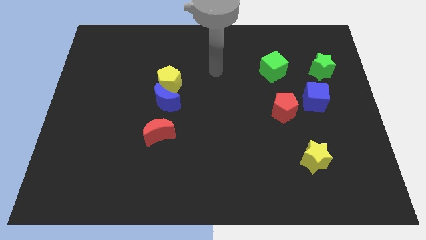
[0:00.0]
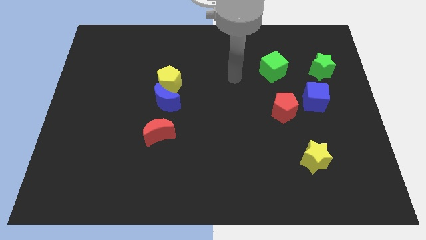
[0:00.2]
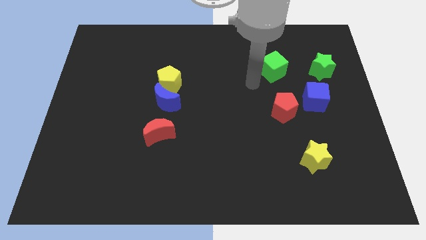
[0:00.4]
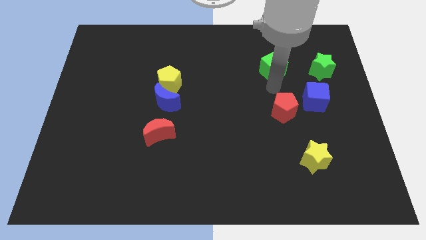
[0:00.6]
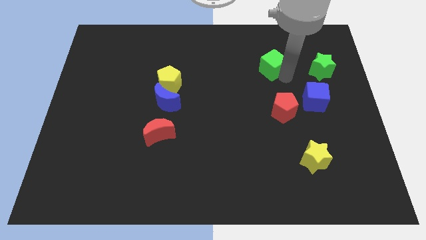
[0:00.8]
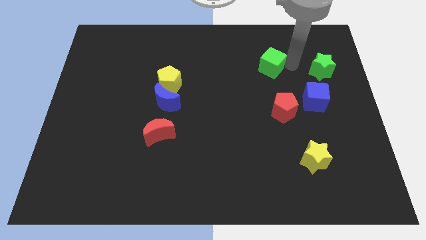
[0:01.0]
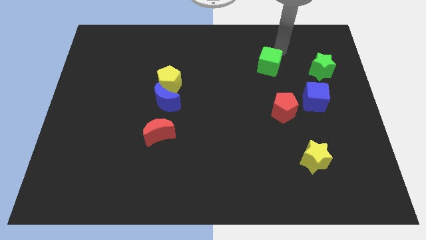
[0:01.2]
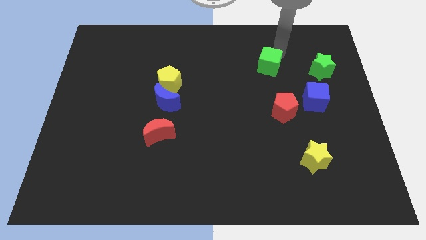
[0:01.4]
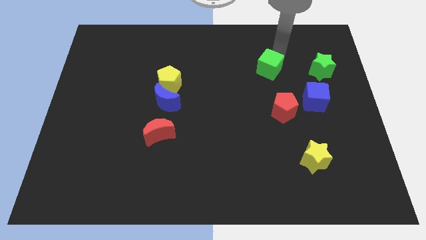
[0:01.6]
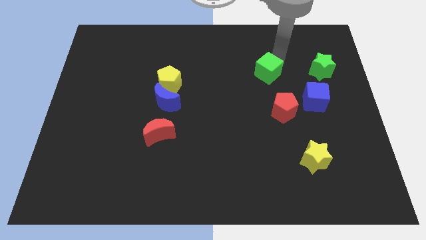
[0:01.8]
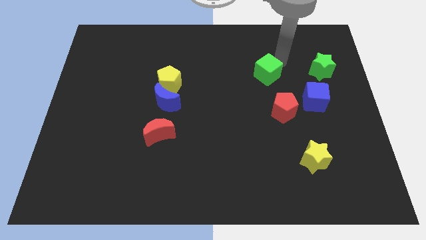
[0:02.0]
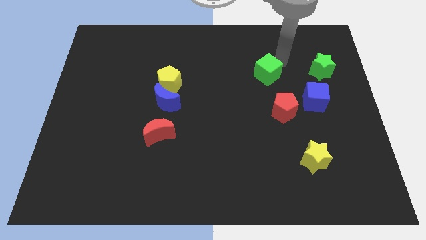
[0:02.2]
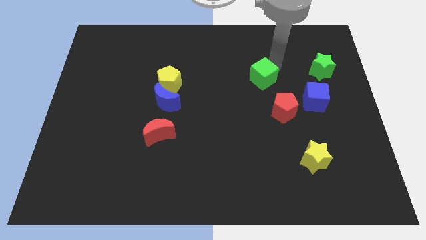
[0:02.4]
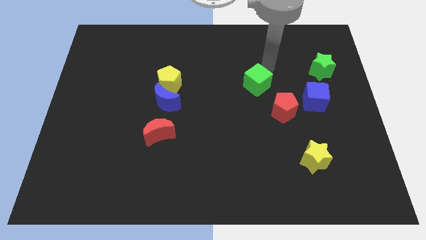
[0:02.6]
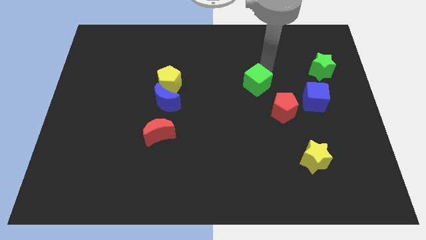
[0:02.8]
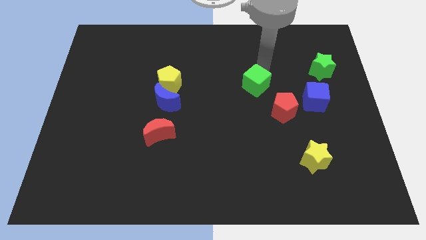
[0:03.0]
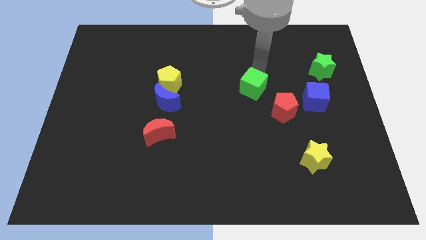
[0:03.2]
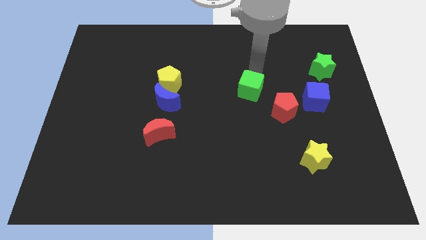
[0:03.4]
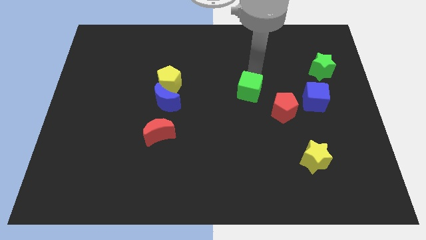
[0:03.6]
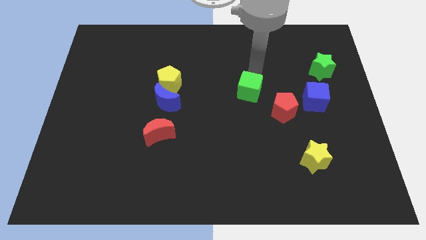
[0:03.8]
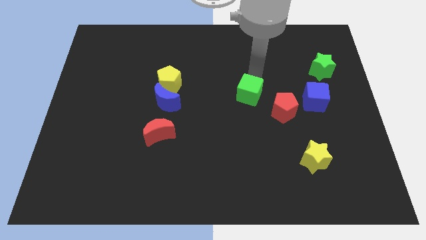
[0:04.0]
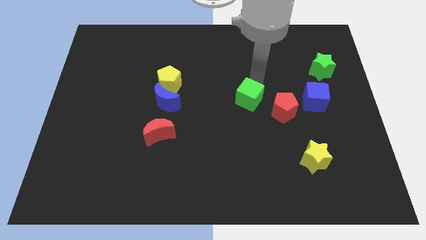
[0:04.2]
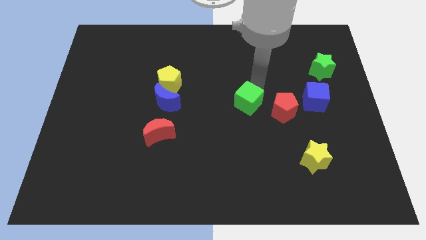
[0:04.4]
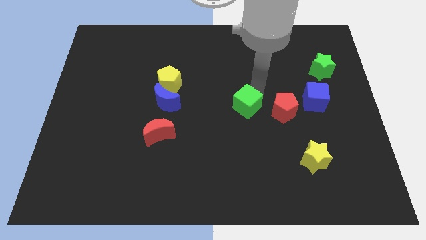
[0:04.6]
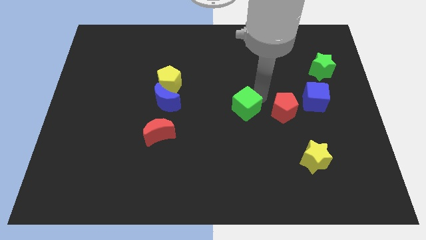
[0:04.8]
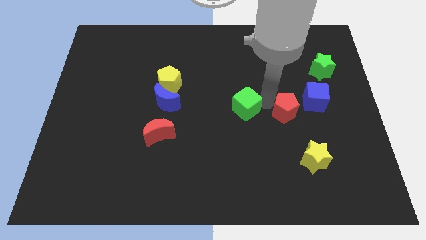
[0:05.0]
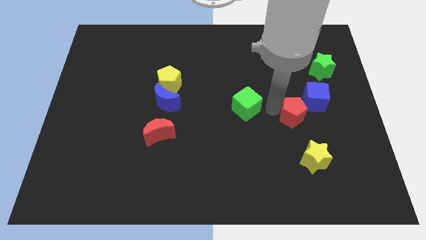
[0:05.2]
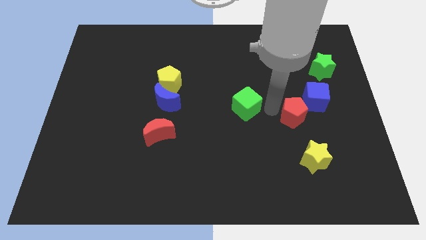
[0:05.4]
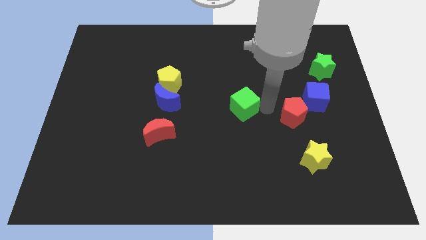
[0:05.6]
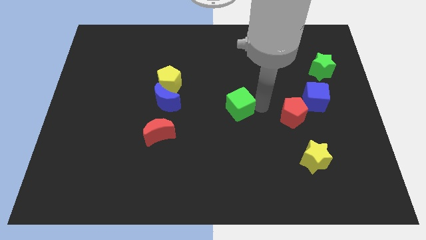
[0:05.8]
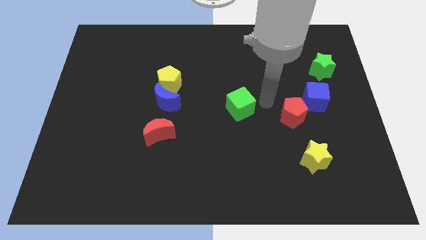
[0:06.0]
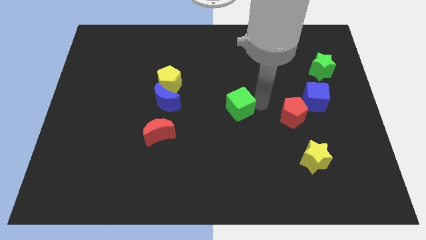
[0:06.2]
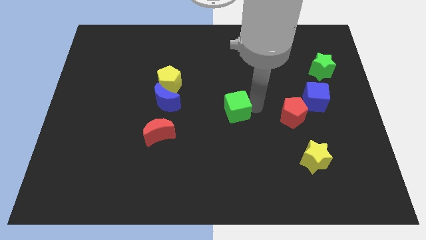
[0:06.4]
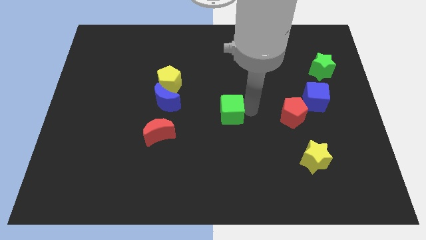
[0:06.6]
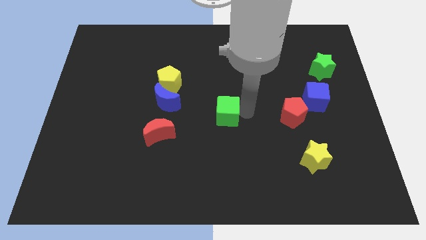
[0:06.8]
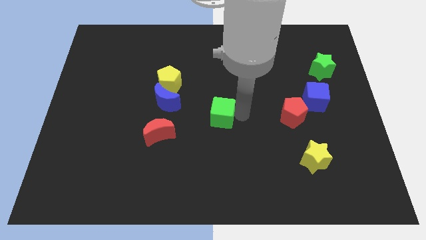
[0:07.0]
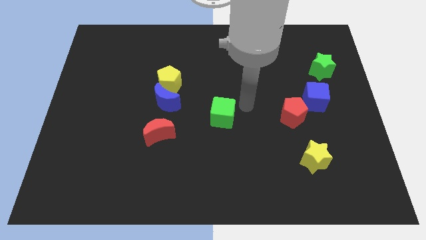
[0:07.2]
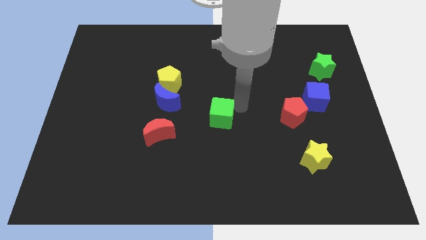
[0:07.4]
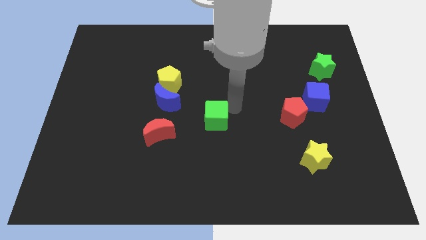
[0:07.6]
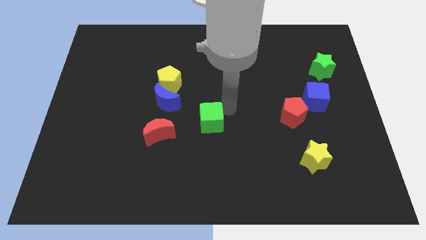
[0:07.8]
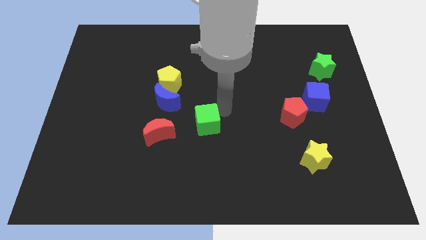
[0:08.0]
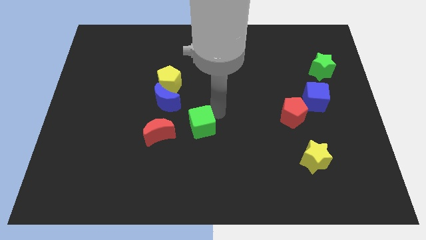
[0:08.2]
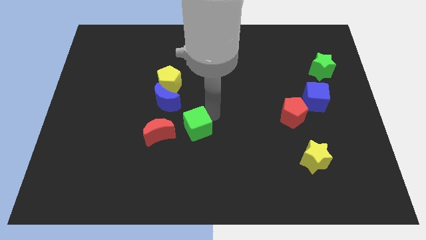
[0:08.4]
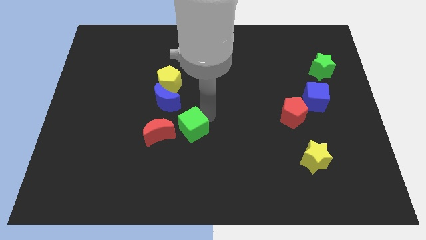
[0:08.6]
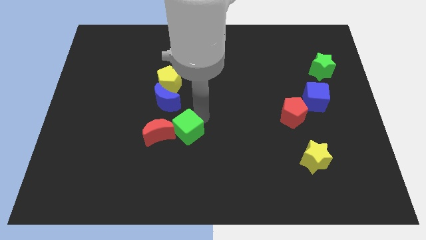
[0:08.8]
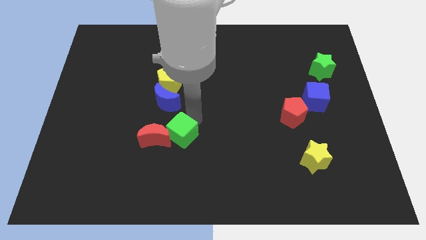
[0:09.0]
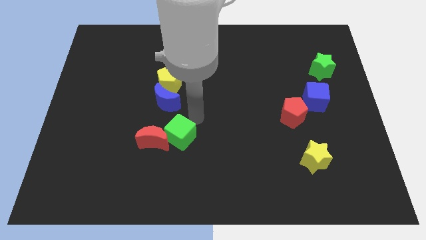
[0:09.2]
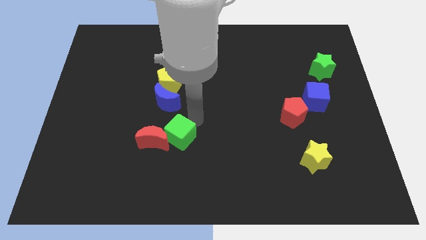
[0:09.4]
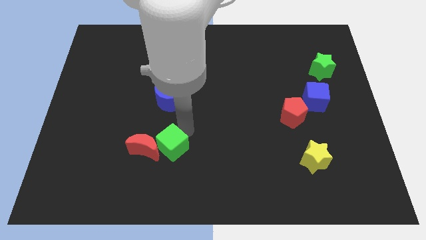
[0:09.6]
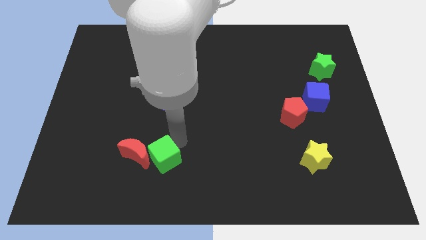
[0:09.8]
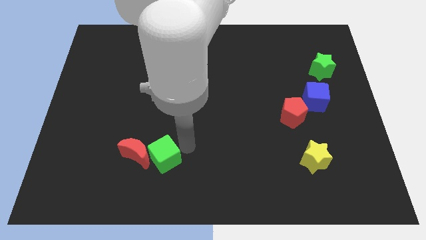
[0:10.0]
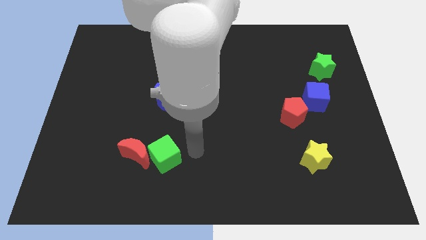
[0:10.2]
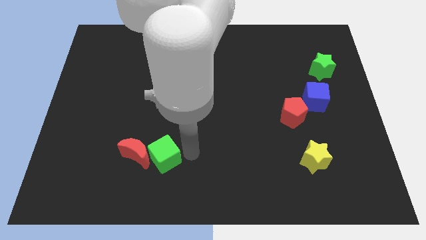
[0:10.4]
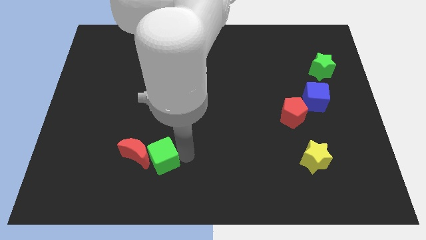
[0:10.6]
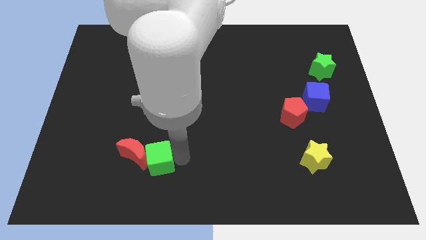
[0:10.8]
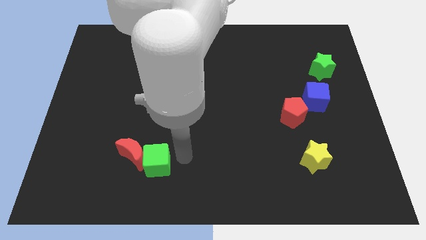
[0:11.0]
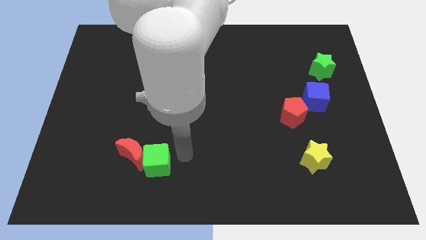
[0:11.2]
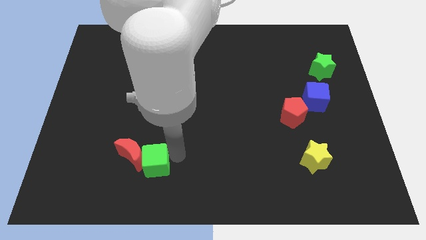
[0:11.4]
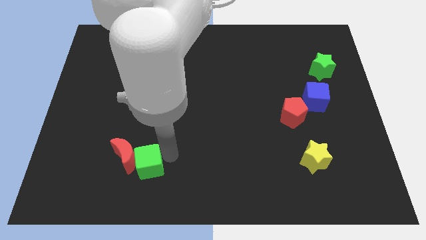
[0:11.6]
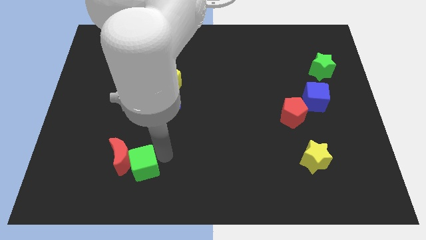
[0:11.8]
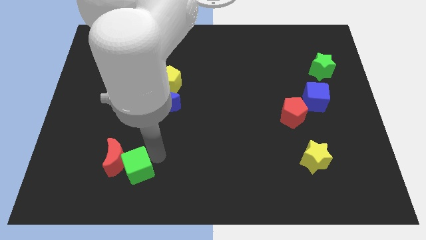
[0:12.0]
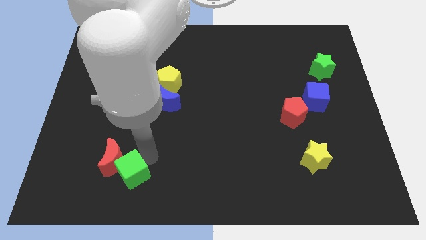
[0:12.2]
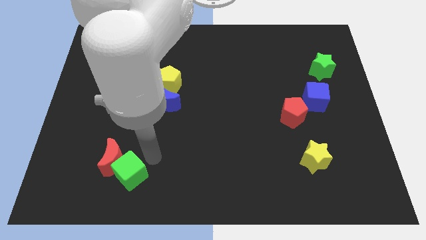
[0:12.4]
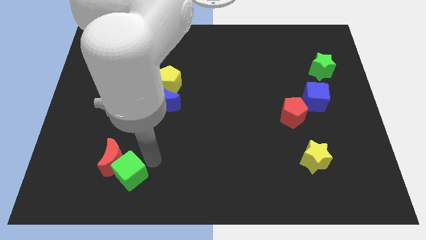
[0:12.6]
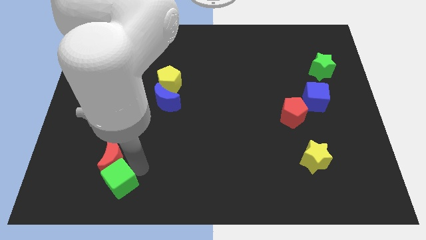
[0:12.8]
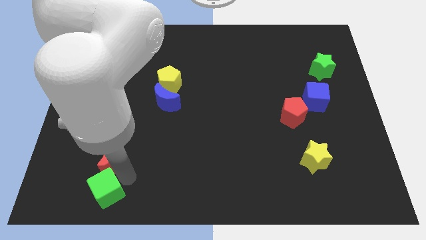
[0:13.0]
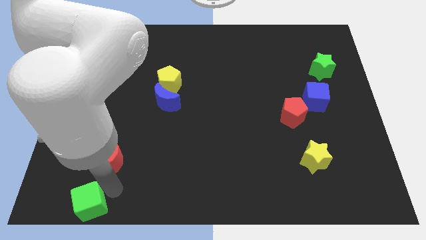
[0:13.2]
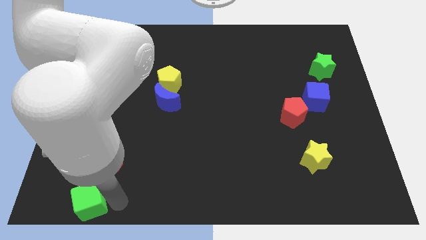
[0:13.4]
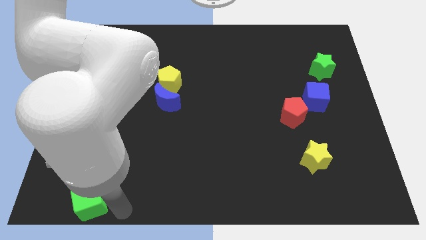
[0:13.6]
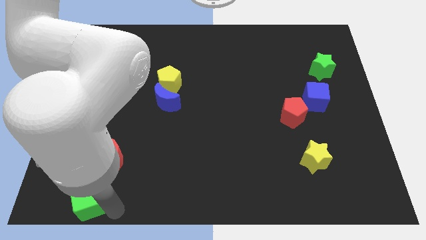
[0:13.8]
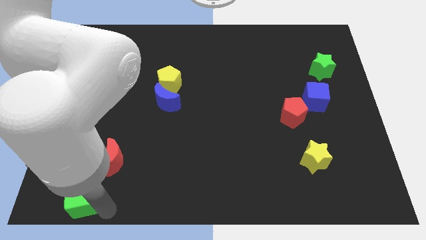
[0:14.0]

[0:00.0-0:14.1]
move the green cube to the bottom left corner
